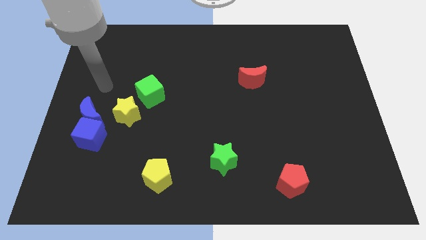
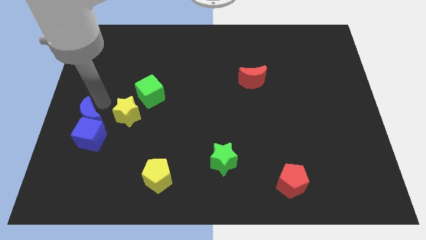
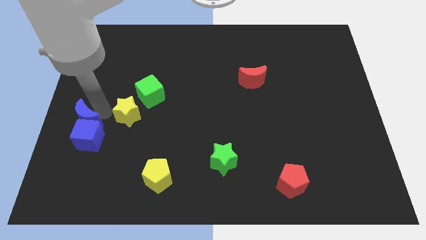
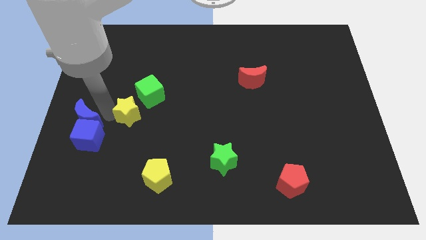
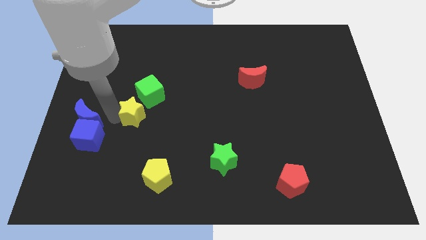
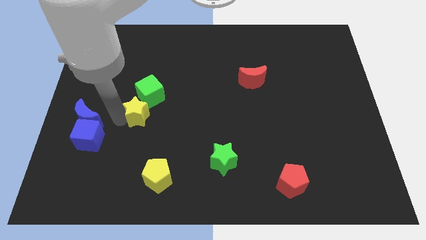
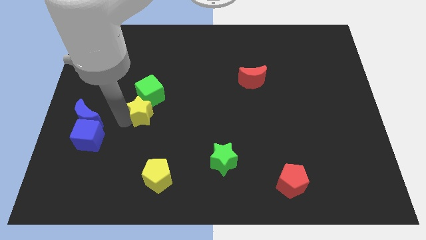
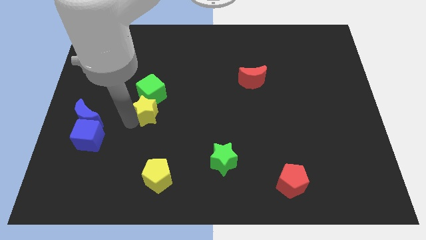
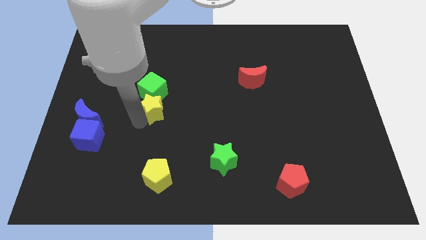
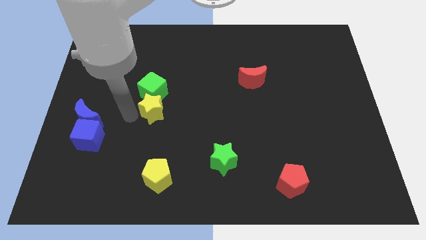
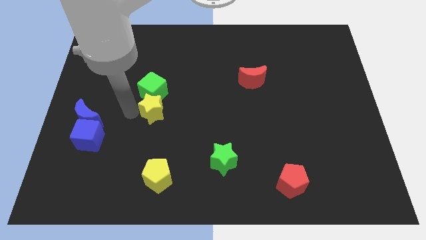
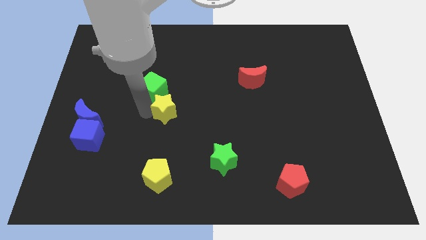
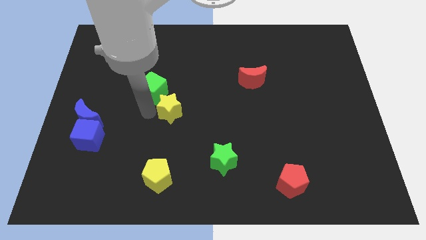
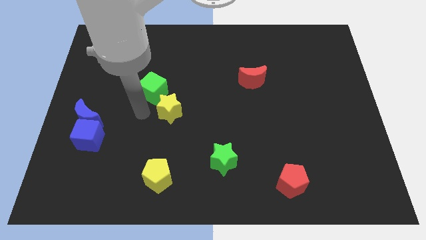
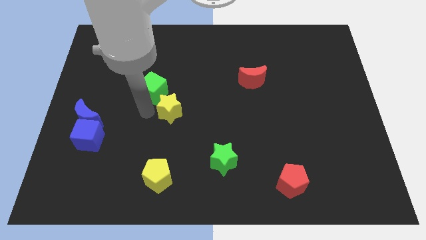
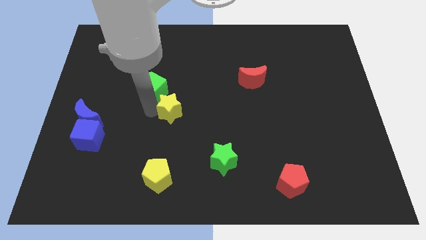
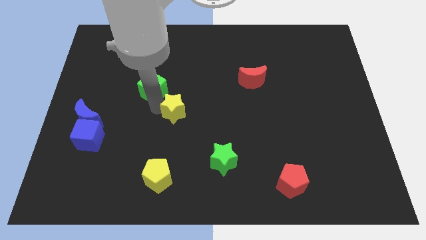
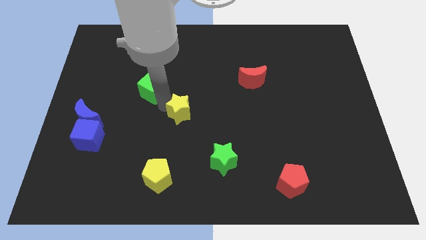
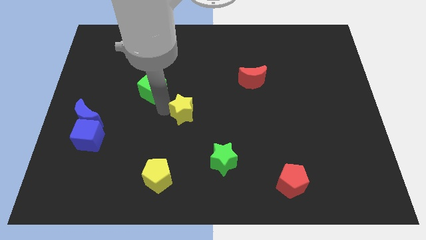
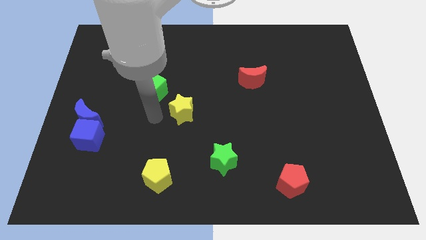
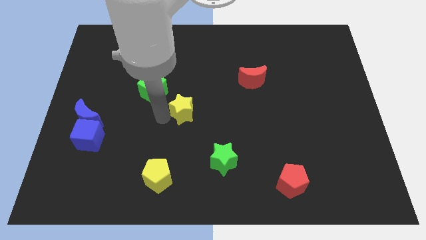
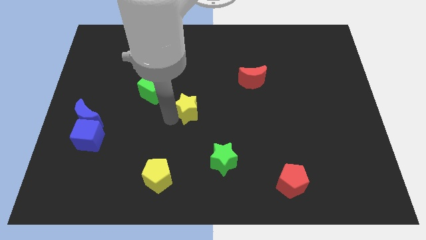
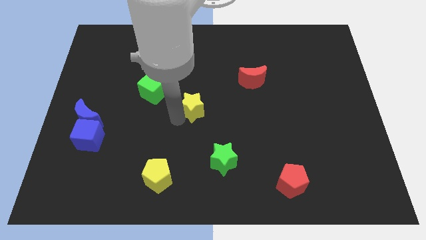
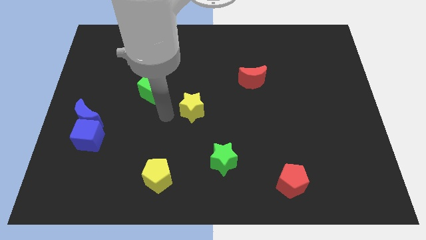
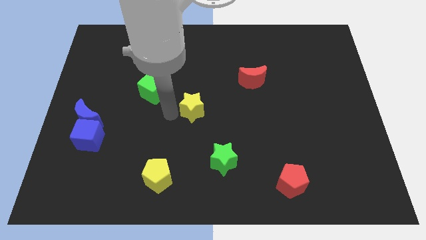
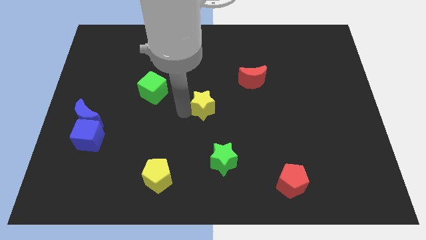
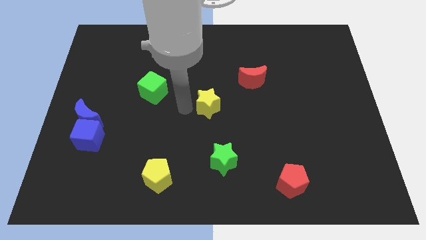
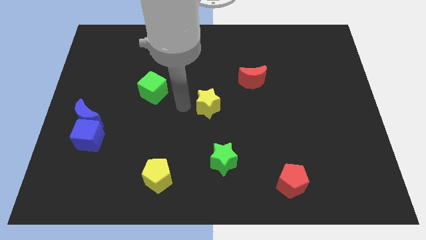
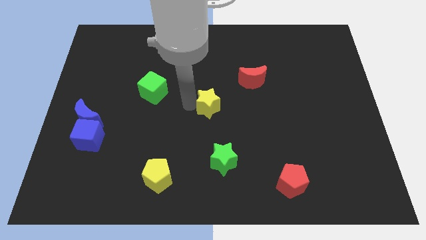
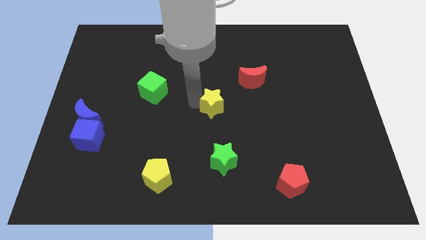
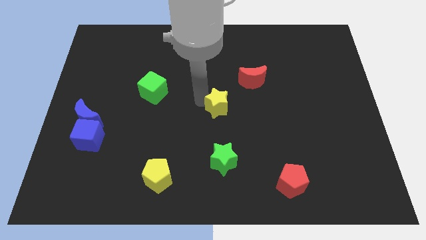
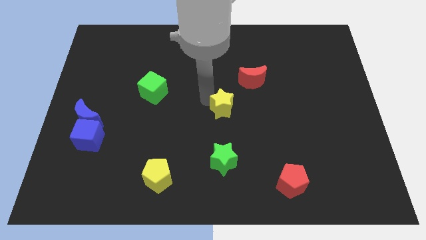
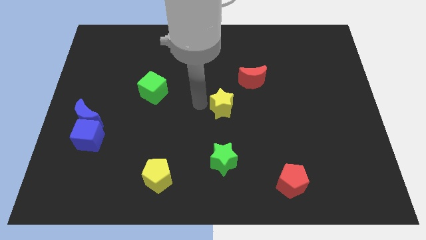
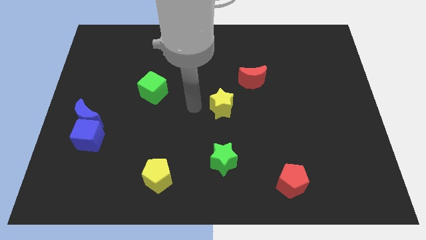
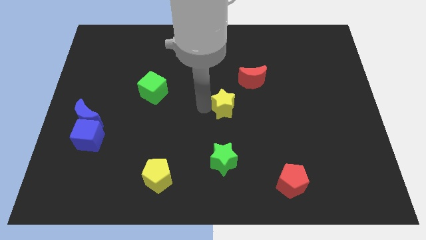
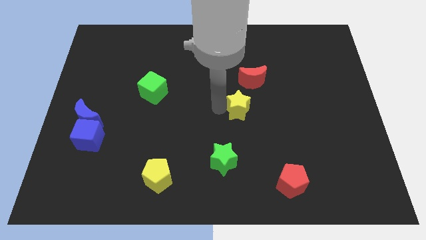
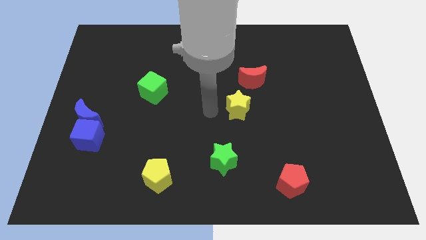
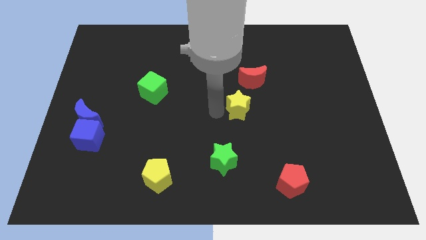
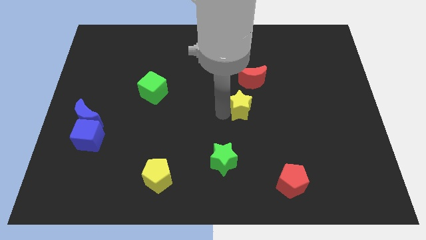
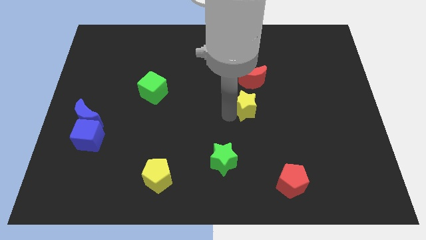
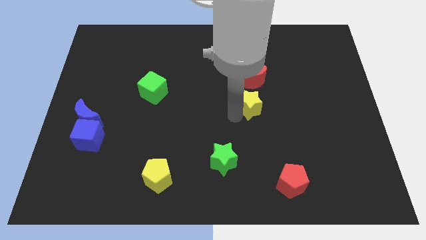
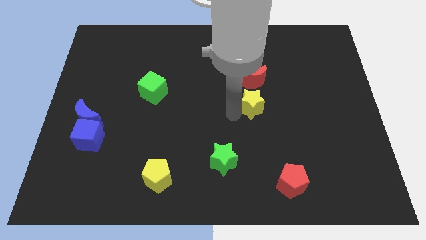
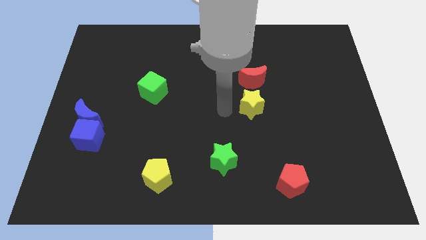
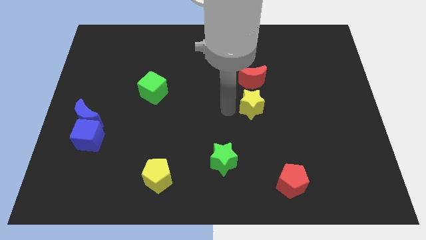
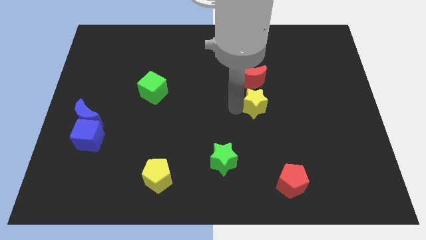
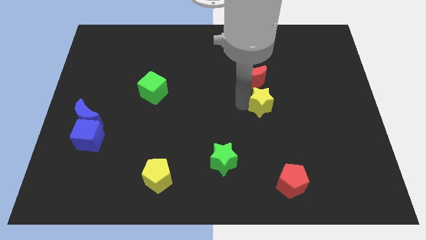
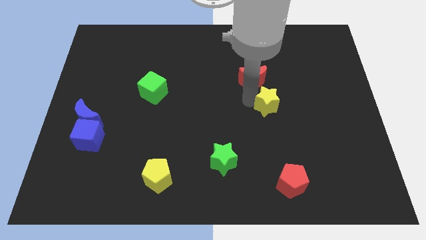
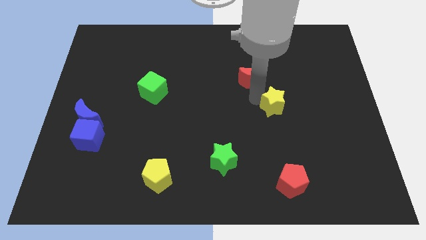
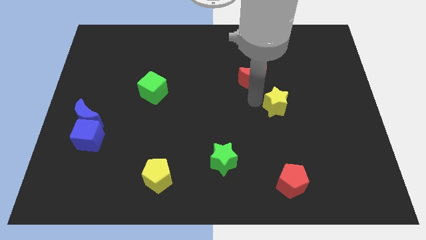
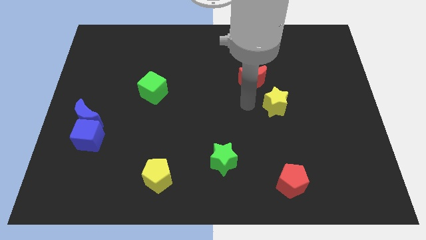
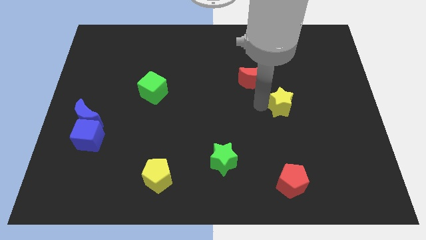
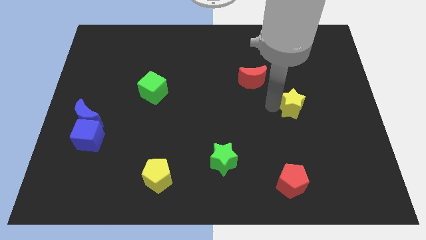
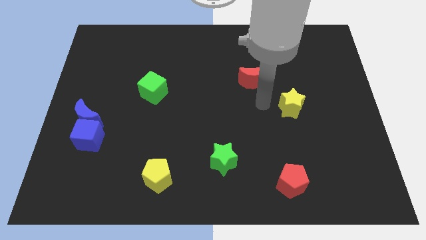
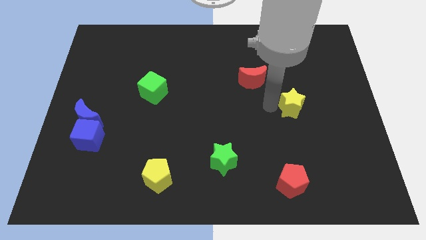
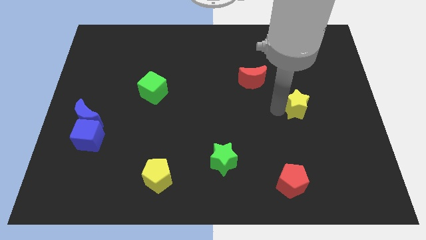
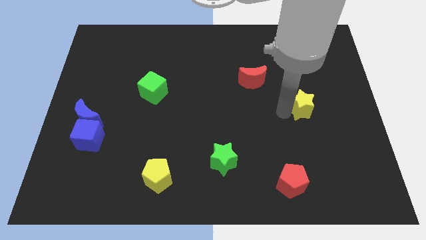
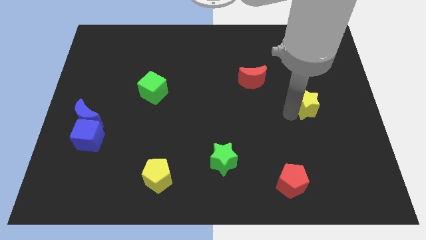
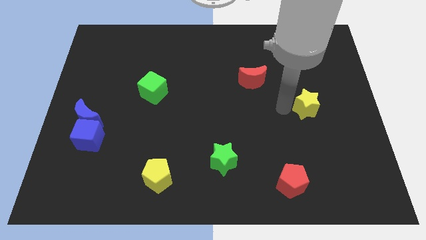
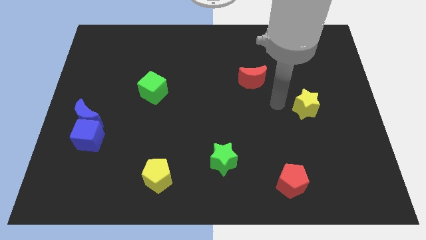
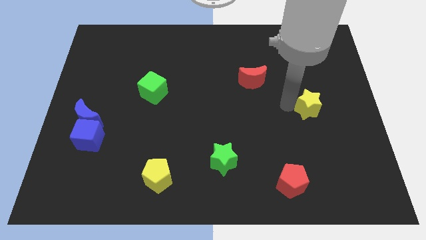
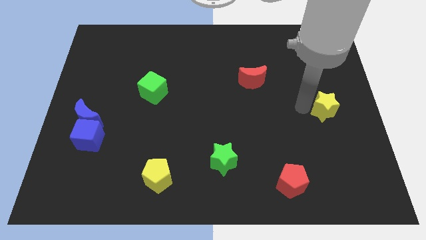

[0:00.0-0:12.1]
slide the yellow star to the right side of the board
